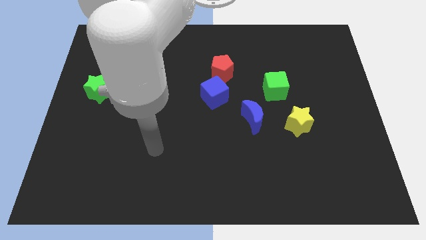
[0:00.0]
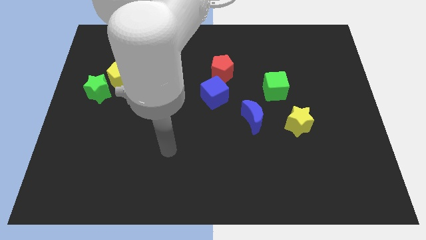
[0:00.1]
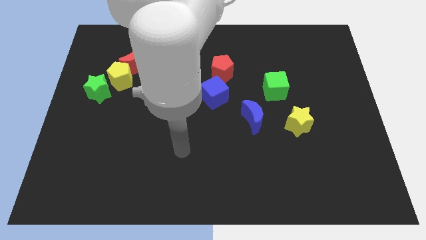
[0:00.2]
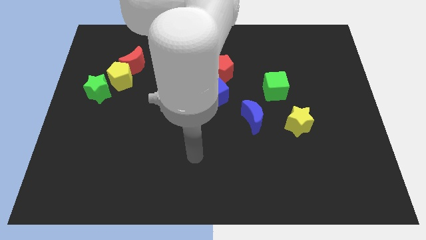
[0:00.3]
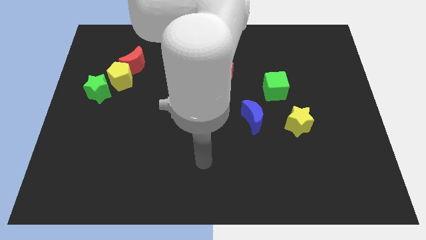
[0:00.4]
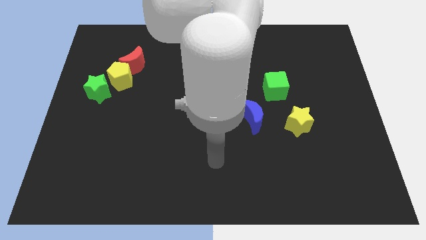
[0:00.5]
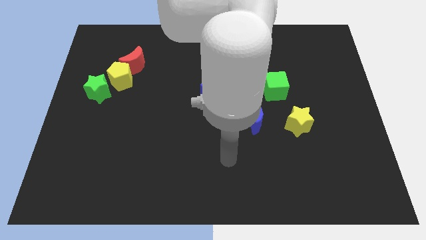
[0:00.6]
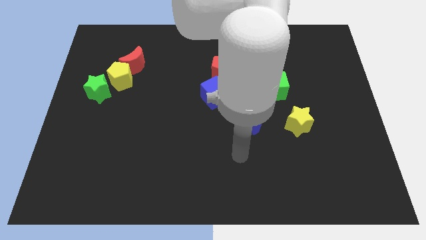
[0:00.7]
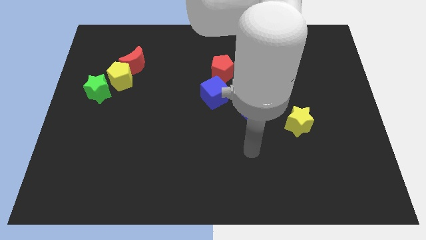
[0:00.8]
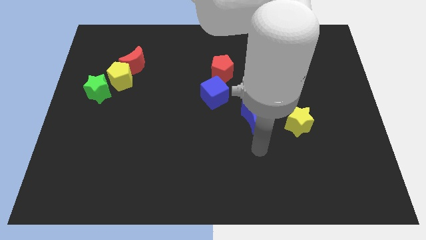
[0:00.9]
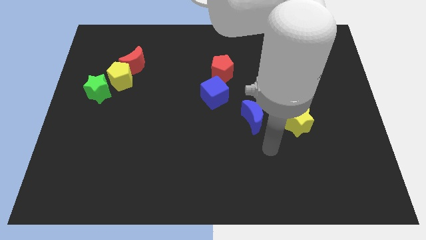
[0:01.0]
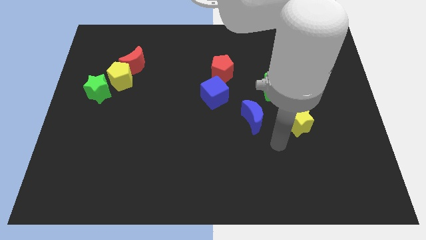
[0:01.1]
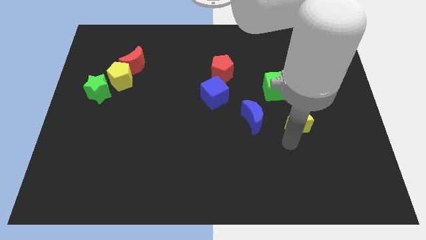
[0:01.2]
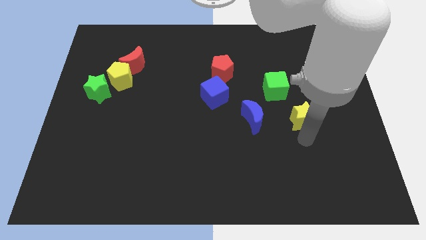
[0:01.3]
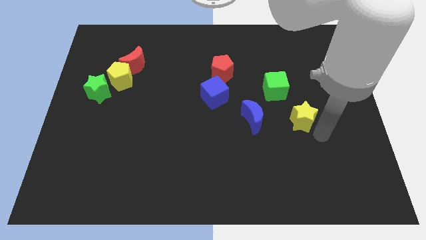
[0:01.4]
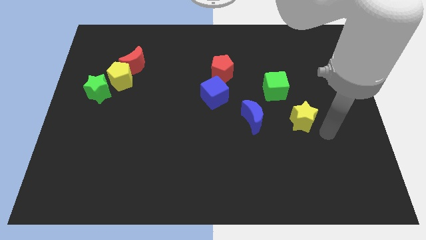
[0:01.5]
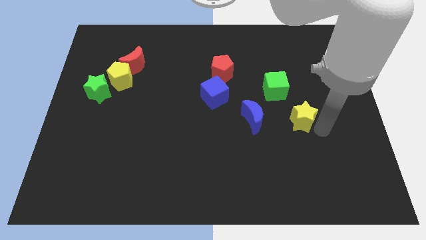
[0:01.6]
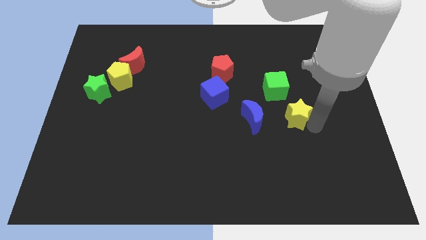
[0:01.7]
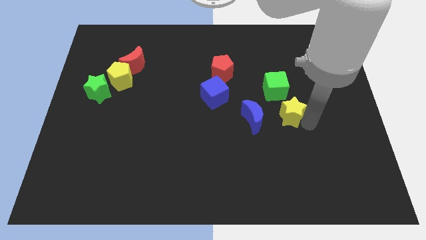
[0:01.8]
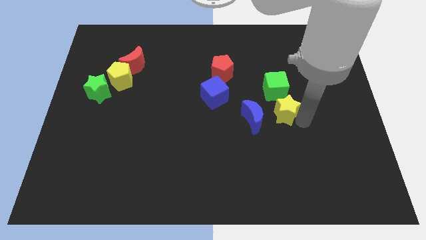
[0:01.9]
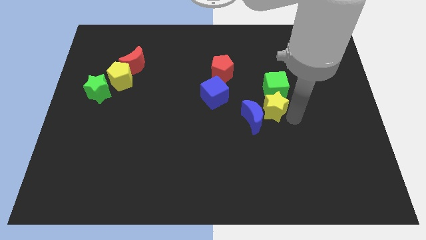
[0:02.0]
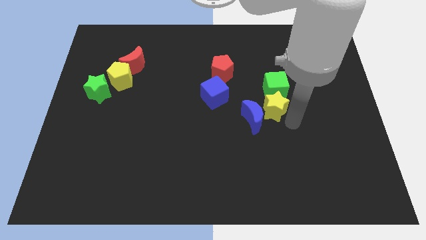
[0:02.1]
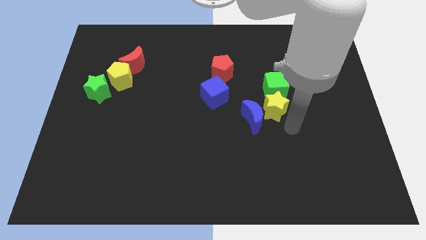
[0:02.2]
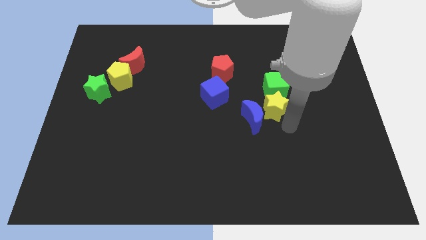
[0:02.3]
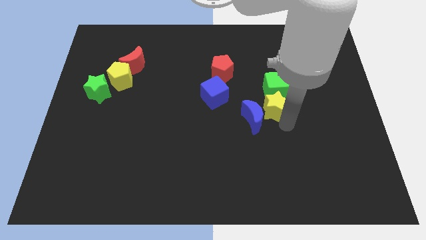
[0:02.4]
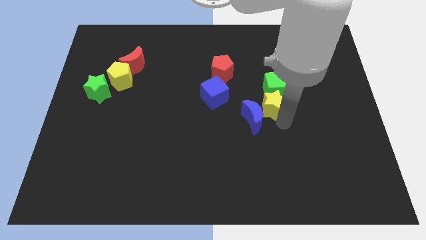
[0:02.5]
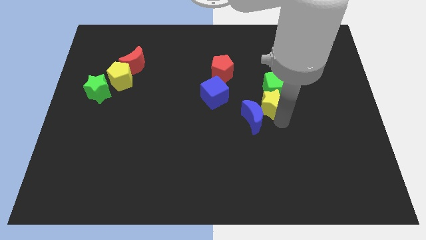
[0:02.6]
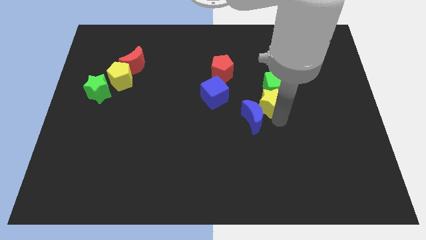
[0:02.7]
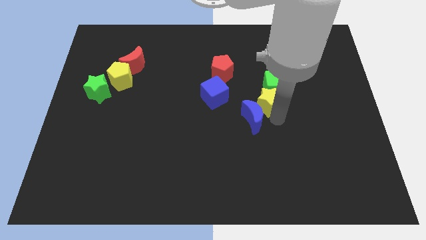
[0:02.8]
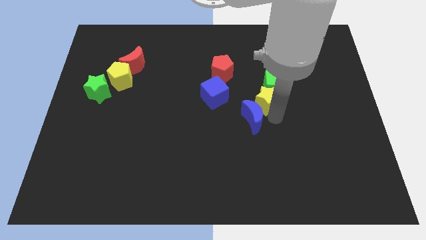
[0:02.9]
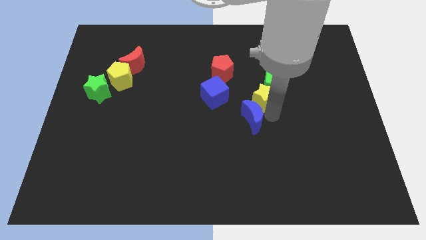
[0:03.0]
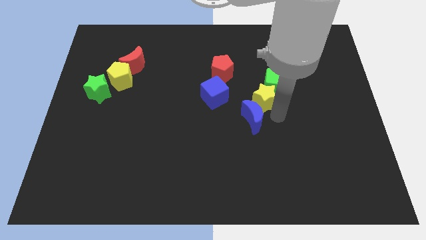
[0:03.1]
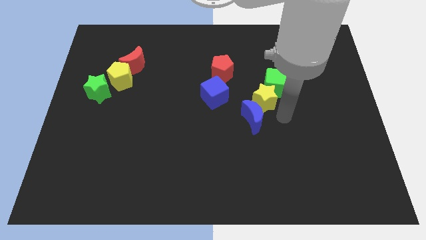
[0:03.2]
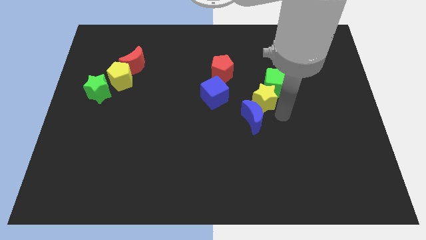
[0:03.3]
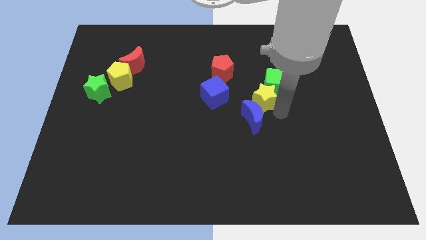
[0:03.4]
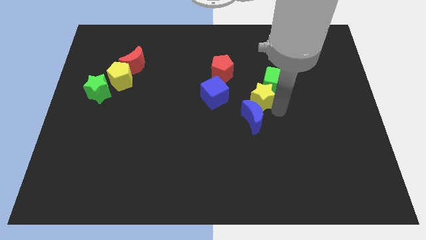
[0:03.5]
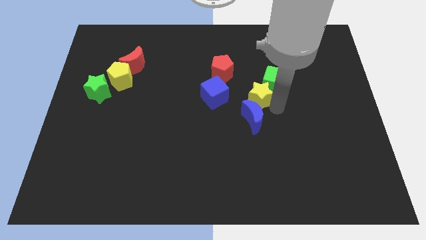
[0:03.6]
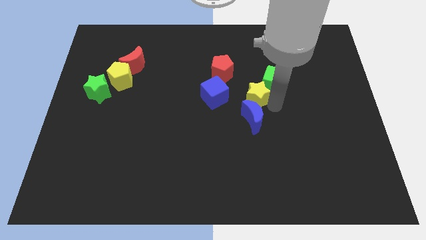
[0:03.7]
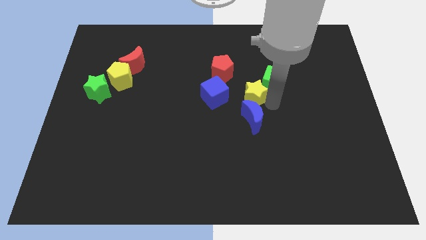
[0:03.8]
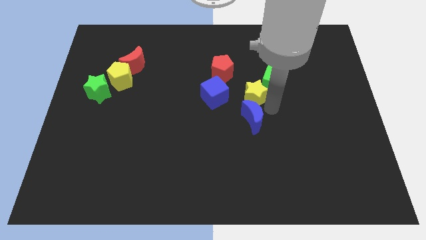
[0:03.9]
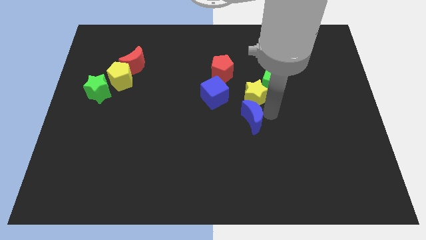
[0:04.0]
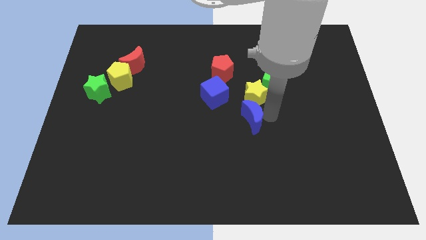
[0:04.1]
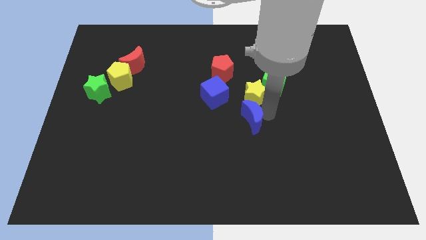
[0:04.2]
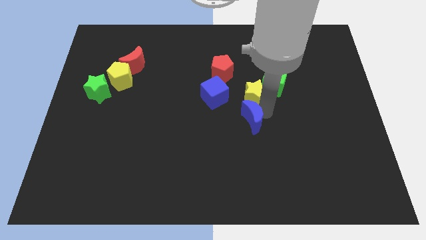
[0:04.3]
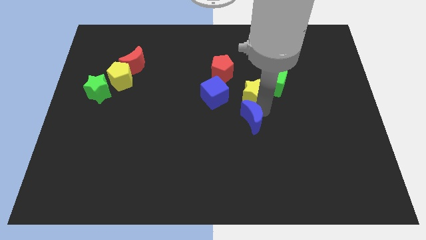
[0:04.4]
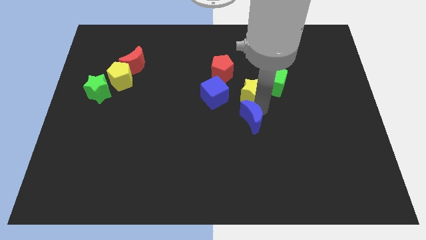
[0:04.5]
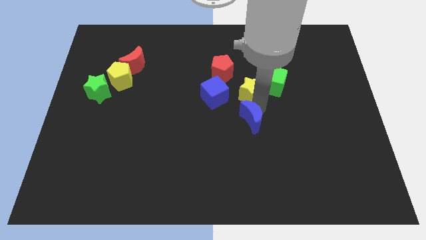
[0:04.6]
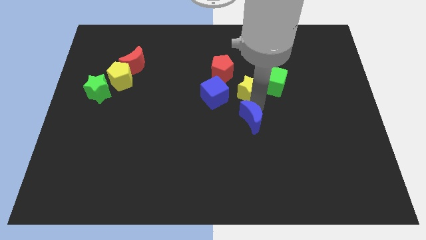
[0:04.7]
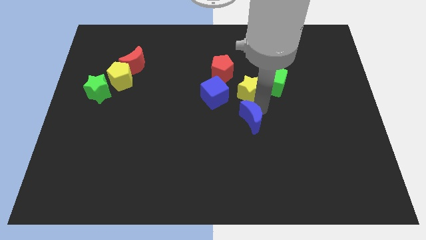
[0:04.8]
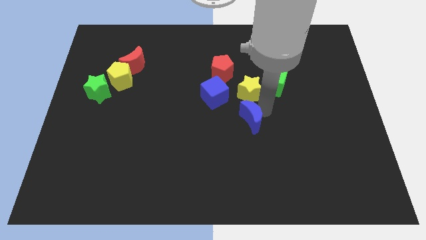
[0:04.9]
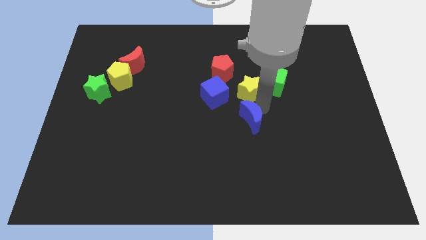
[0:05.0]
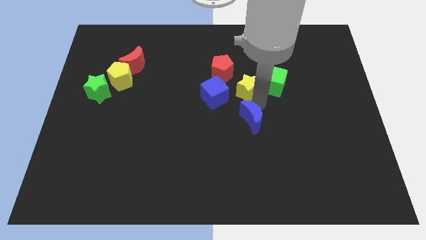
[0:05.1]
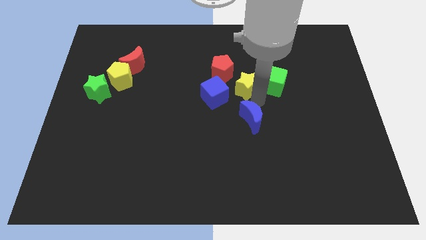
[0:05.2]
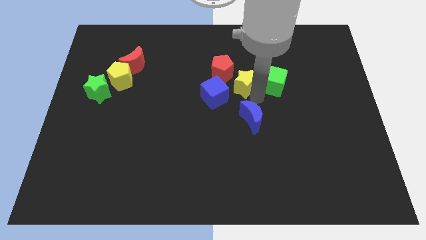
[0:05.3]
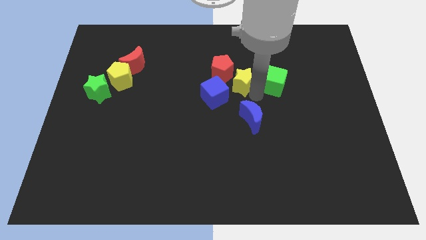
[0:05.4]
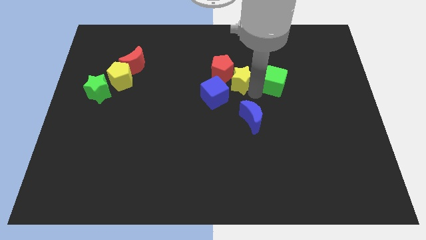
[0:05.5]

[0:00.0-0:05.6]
slide the yellow star towards the red pentagon

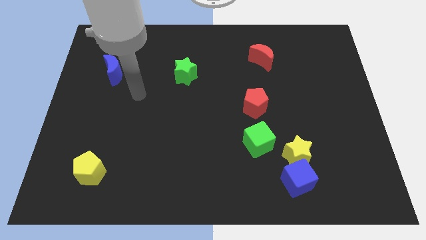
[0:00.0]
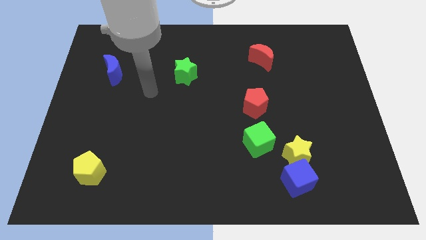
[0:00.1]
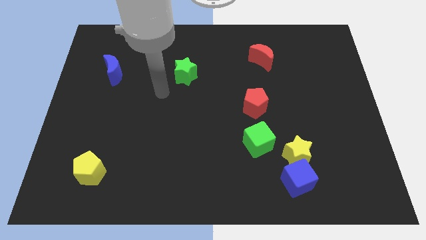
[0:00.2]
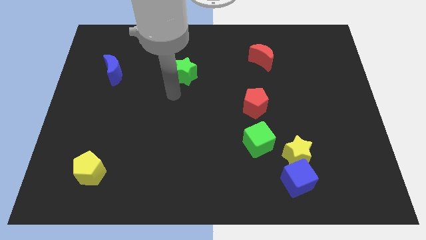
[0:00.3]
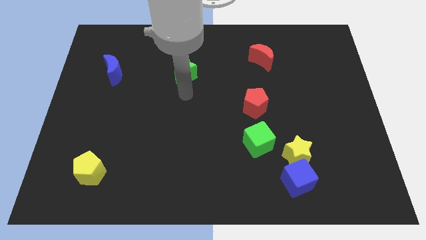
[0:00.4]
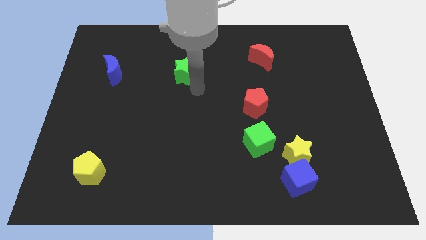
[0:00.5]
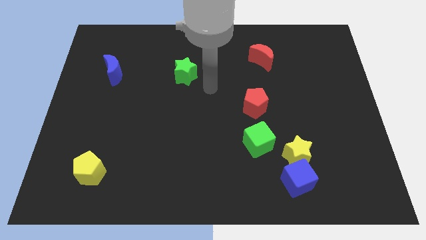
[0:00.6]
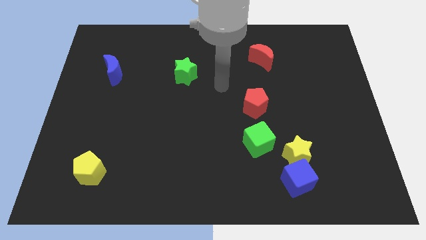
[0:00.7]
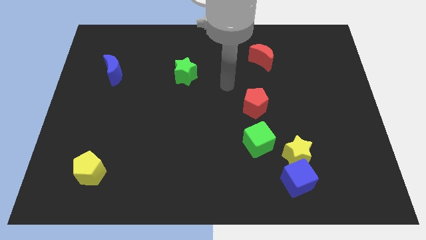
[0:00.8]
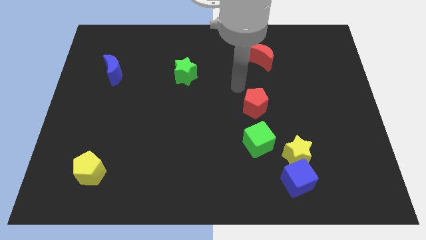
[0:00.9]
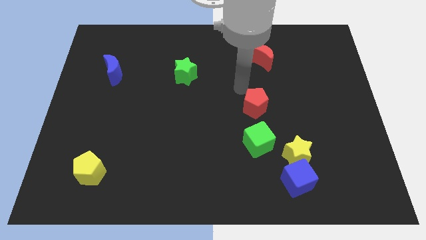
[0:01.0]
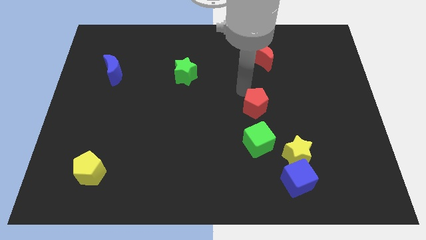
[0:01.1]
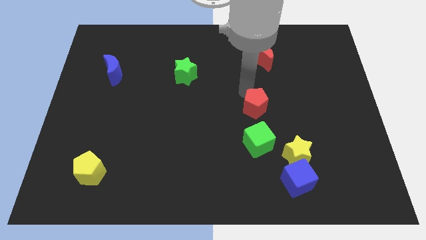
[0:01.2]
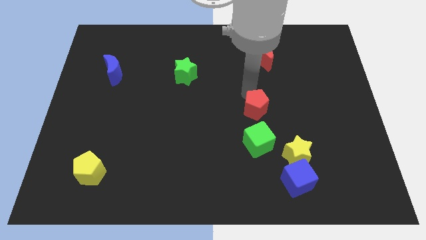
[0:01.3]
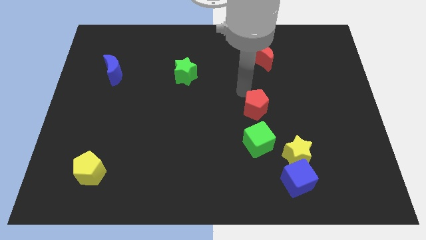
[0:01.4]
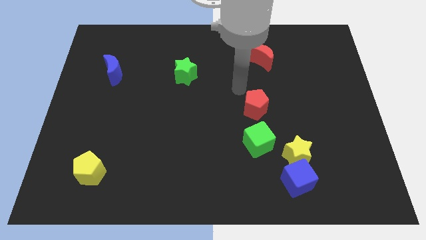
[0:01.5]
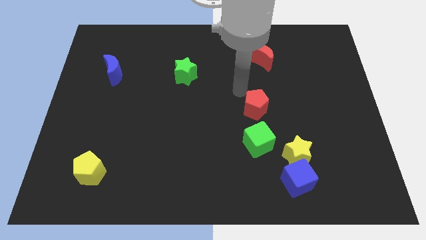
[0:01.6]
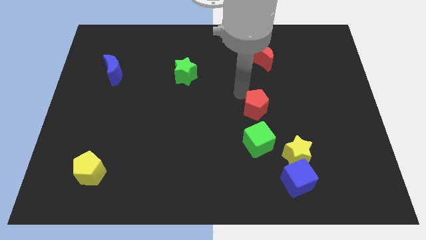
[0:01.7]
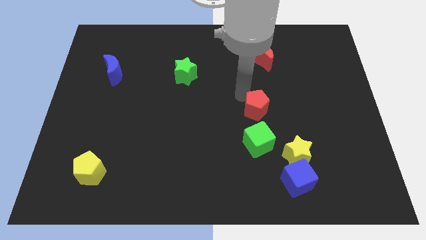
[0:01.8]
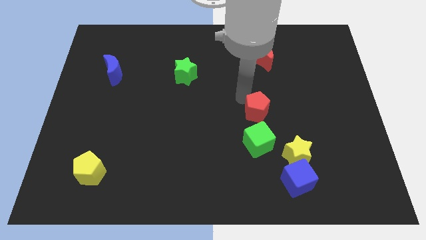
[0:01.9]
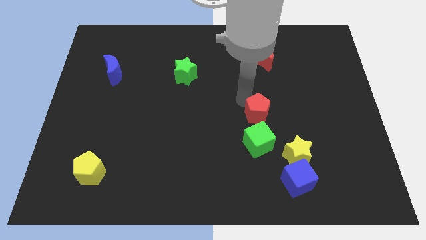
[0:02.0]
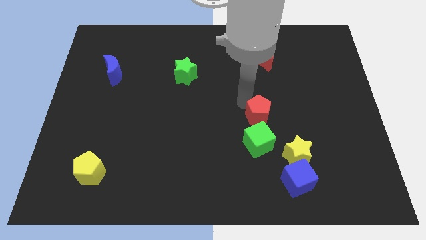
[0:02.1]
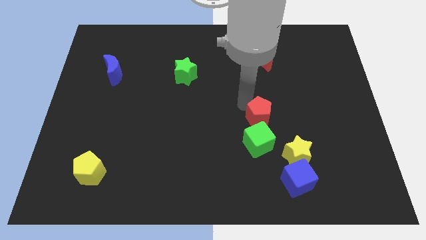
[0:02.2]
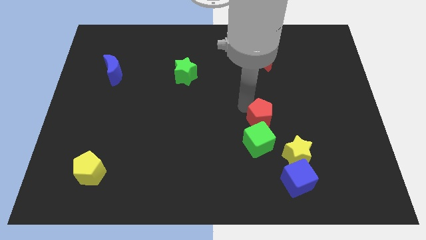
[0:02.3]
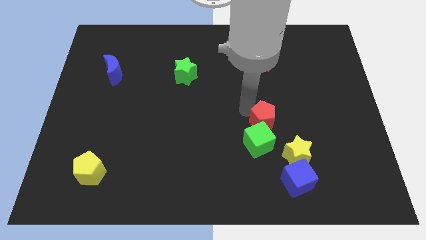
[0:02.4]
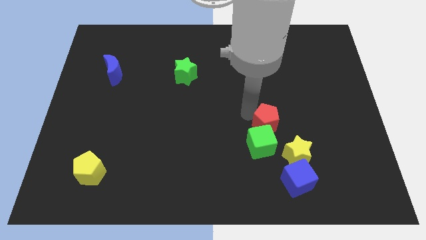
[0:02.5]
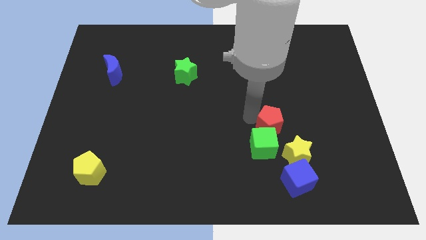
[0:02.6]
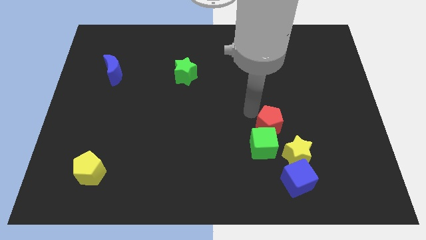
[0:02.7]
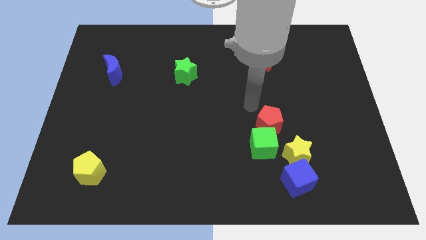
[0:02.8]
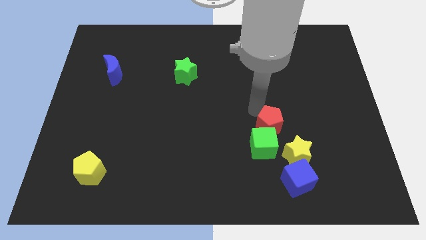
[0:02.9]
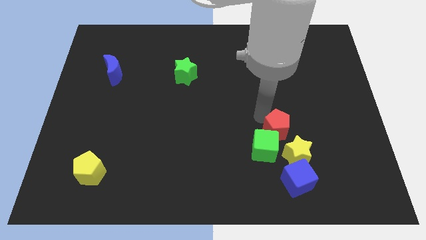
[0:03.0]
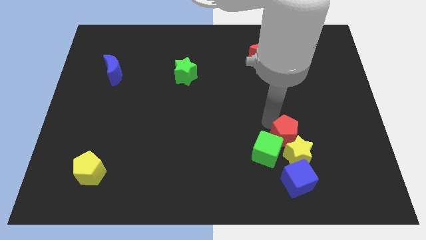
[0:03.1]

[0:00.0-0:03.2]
put the red pentagon to the yellow star
